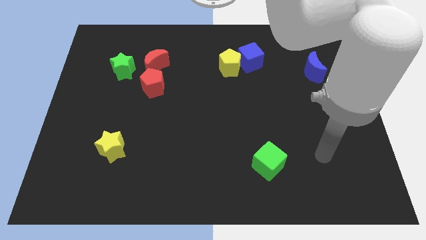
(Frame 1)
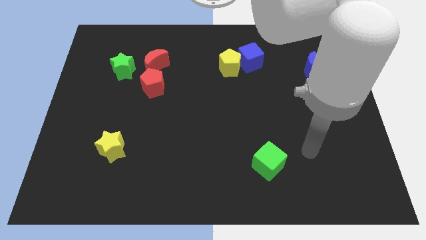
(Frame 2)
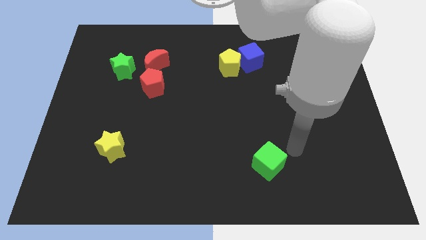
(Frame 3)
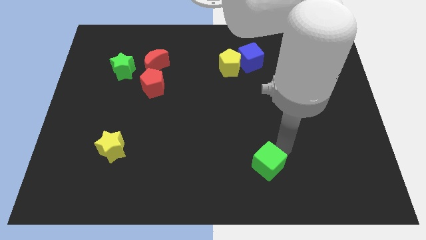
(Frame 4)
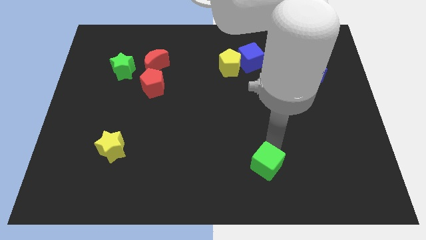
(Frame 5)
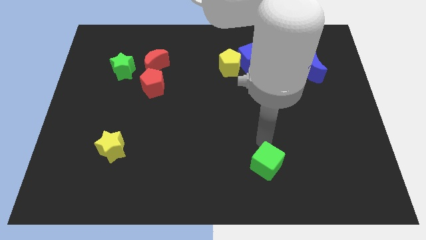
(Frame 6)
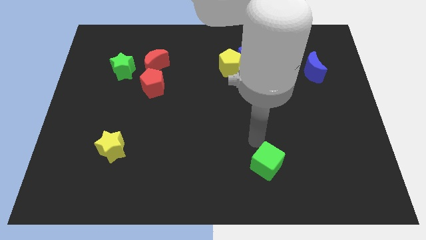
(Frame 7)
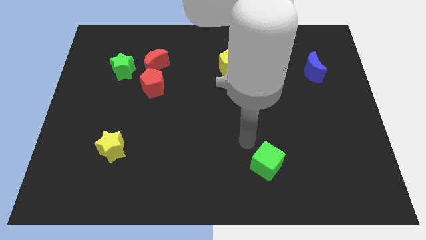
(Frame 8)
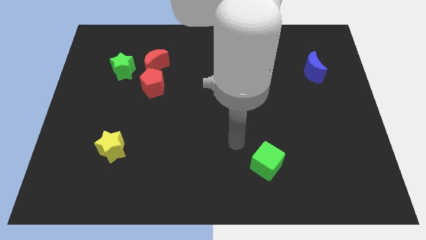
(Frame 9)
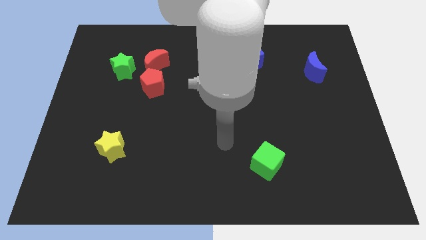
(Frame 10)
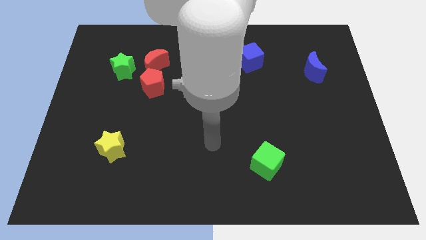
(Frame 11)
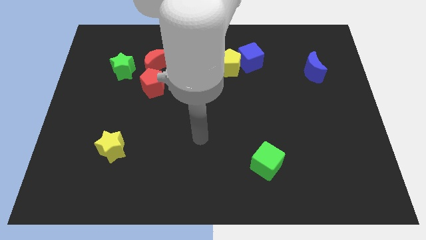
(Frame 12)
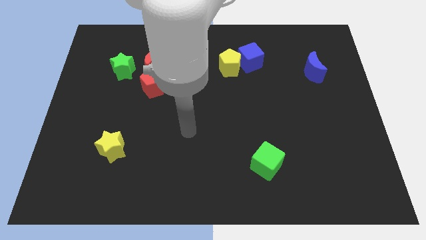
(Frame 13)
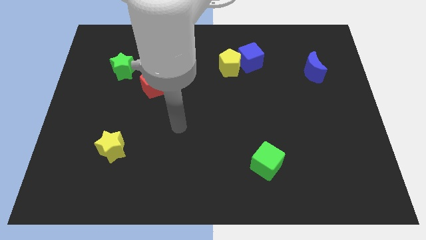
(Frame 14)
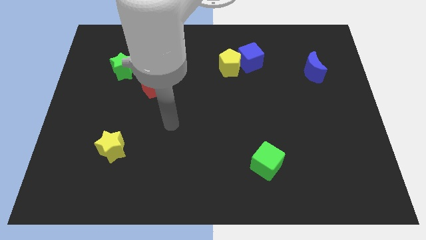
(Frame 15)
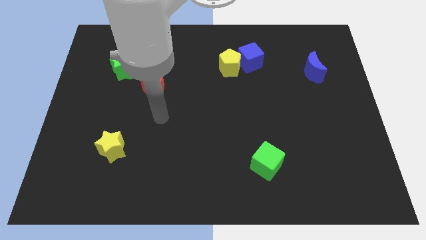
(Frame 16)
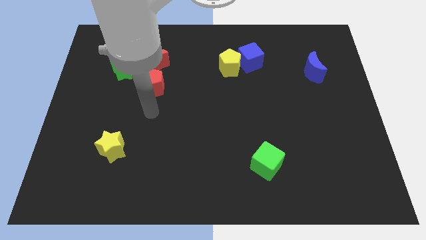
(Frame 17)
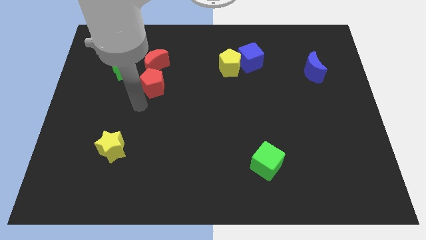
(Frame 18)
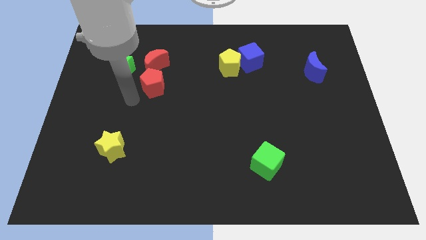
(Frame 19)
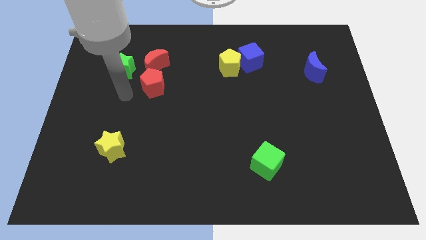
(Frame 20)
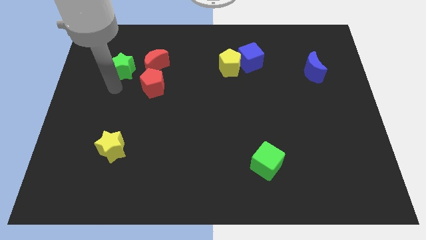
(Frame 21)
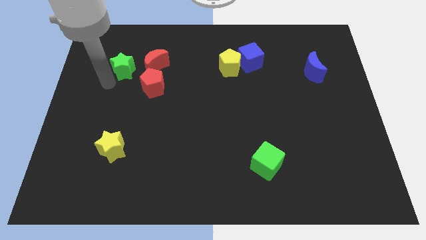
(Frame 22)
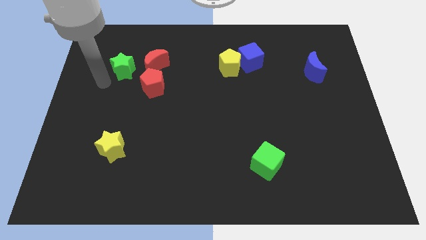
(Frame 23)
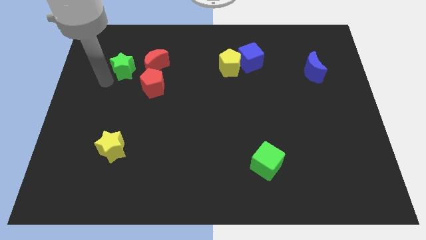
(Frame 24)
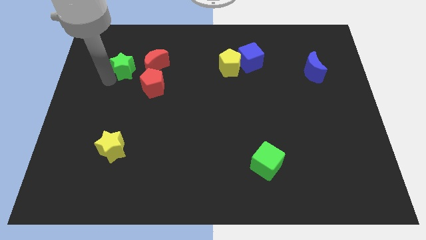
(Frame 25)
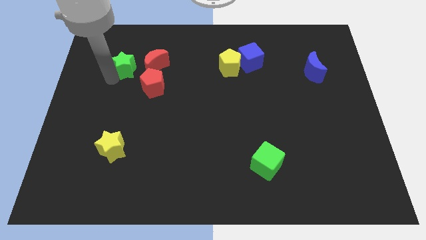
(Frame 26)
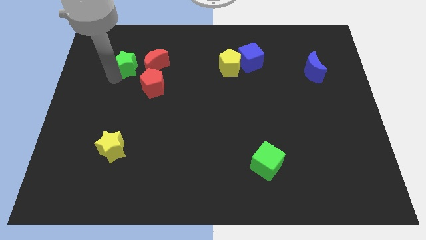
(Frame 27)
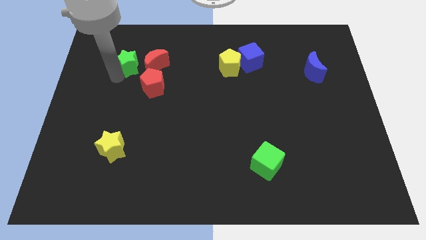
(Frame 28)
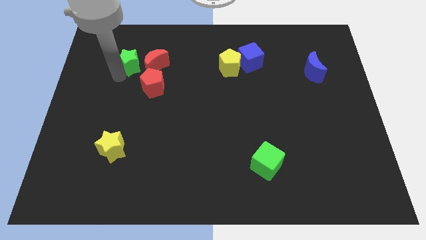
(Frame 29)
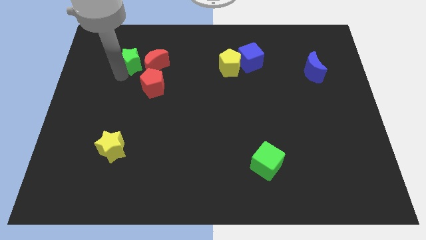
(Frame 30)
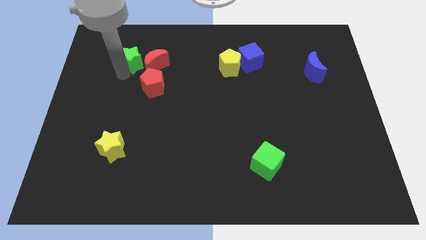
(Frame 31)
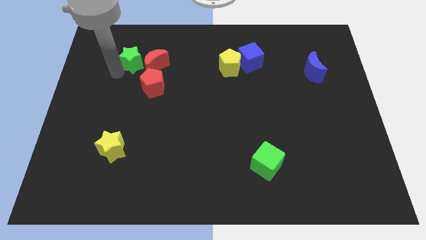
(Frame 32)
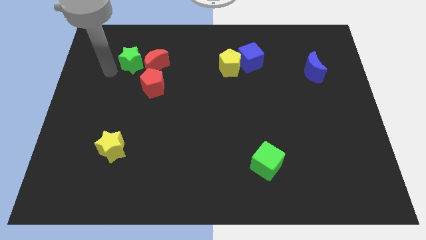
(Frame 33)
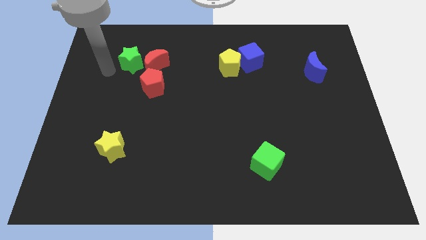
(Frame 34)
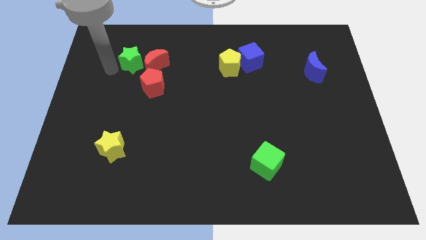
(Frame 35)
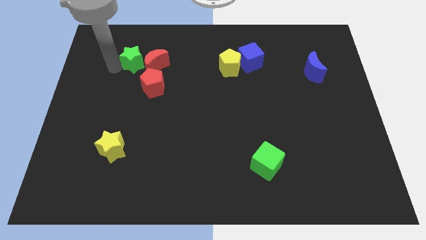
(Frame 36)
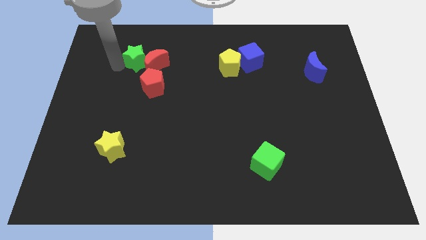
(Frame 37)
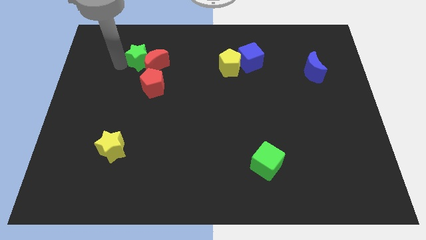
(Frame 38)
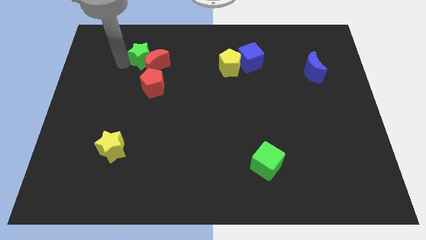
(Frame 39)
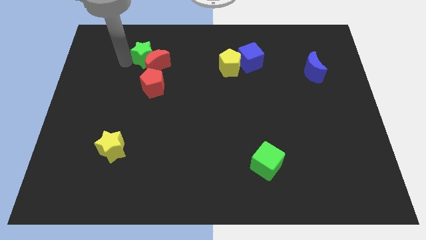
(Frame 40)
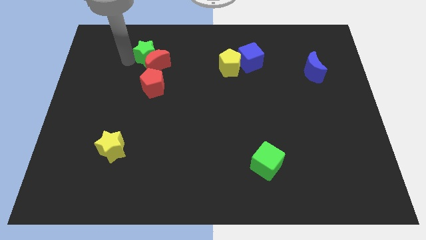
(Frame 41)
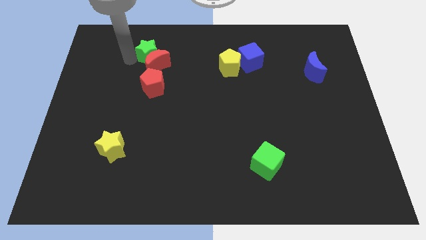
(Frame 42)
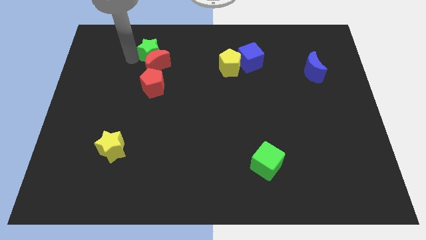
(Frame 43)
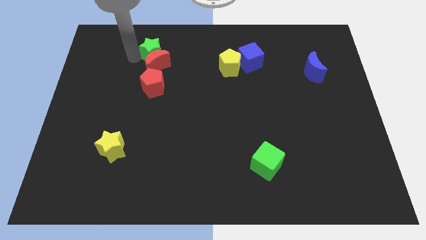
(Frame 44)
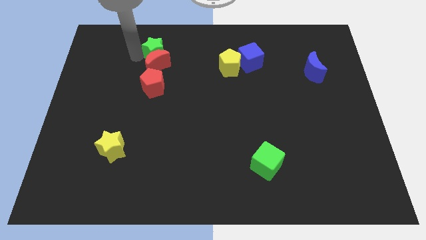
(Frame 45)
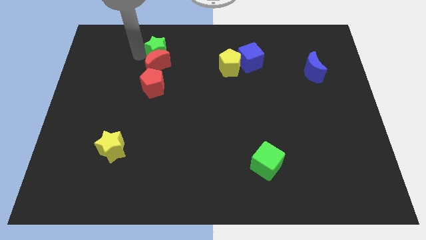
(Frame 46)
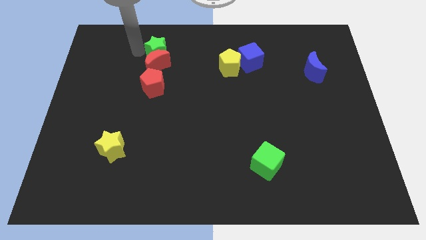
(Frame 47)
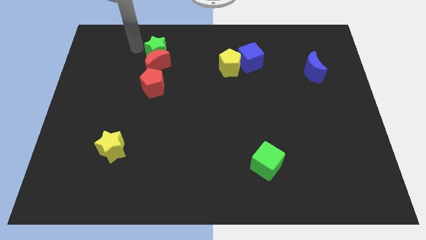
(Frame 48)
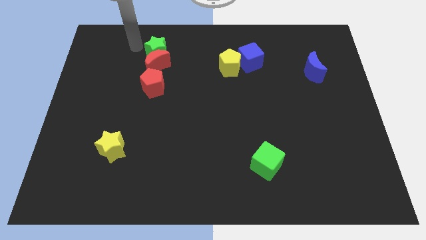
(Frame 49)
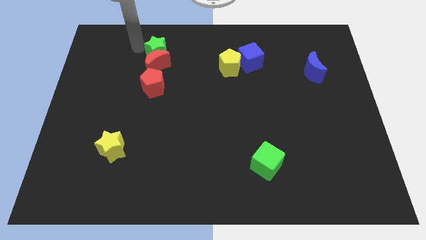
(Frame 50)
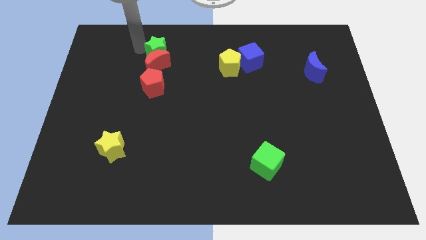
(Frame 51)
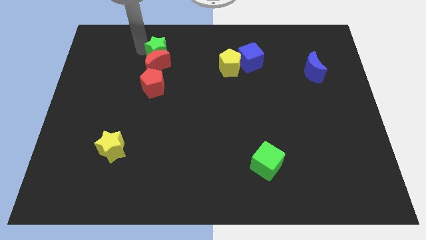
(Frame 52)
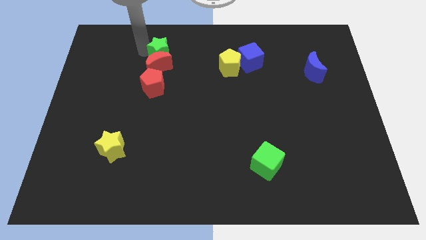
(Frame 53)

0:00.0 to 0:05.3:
move the green star a bit right

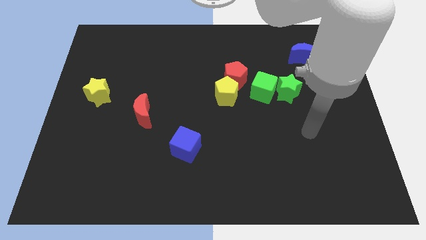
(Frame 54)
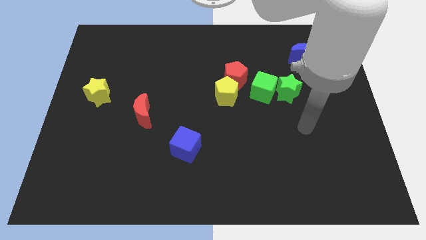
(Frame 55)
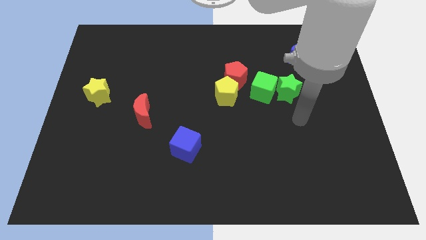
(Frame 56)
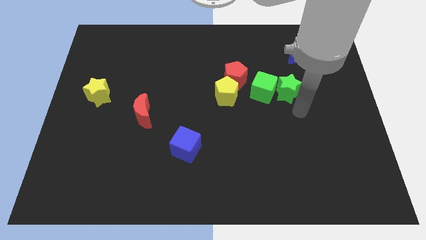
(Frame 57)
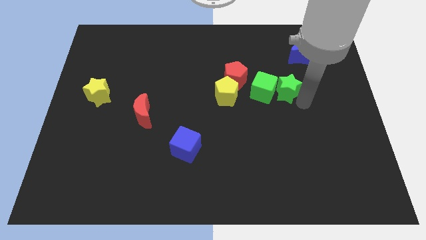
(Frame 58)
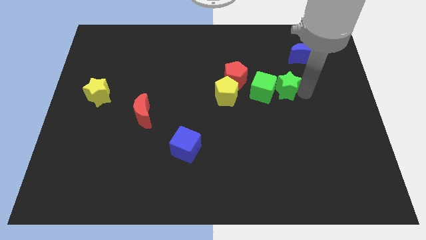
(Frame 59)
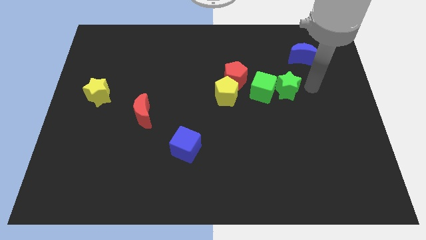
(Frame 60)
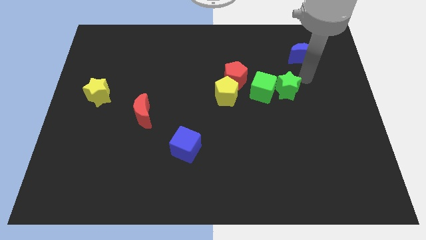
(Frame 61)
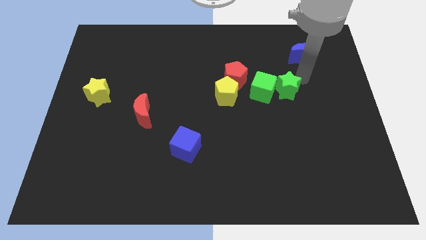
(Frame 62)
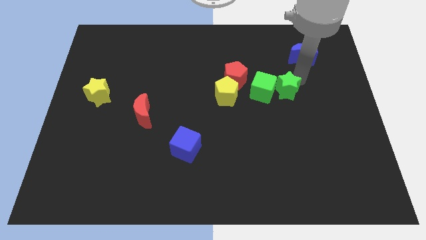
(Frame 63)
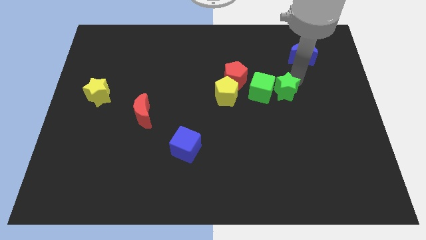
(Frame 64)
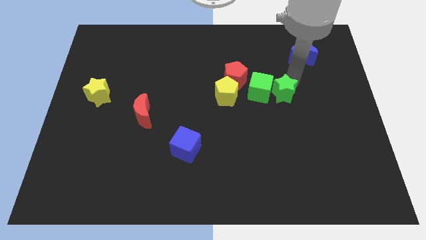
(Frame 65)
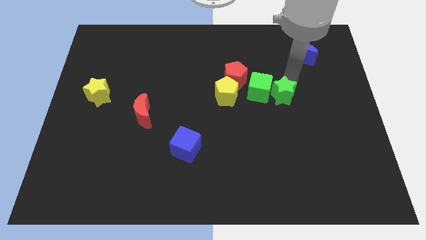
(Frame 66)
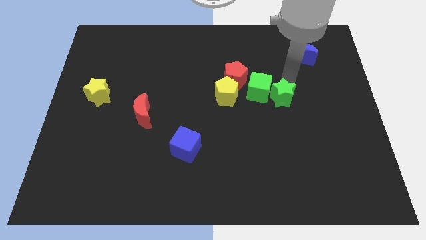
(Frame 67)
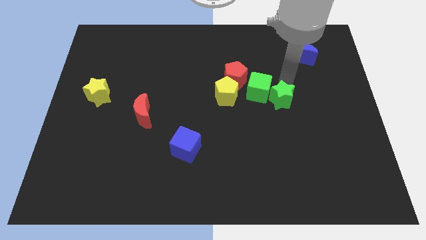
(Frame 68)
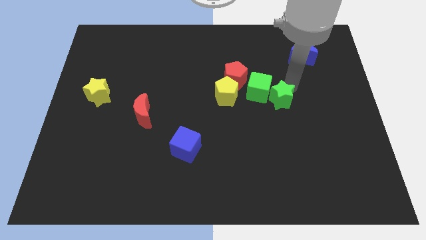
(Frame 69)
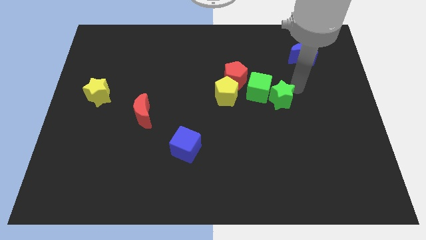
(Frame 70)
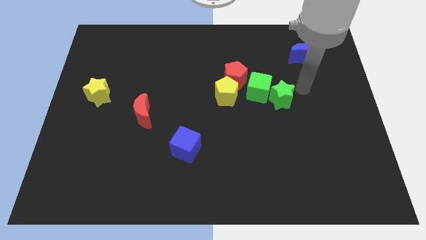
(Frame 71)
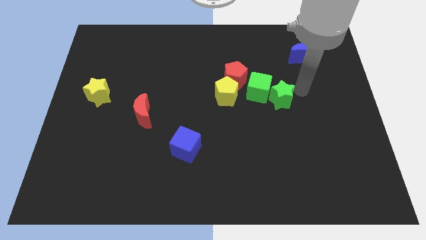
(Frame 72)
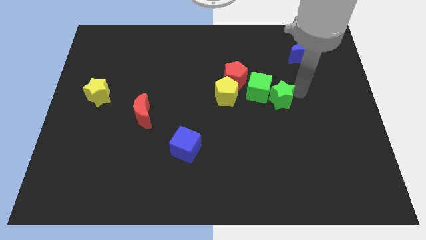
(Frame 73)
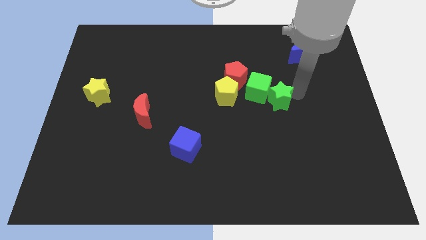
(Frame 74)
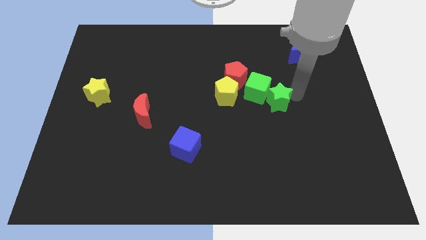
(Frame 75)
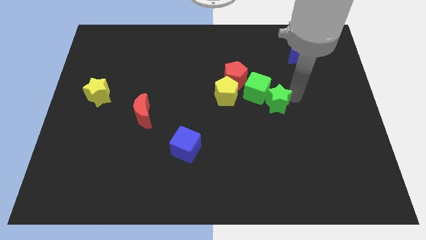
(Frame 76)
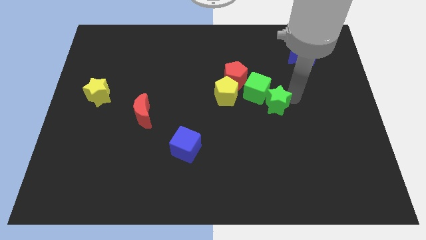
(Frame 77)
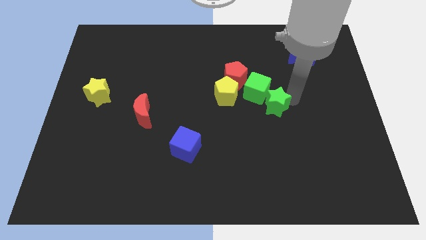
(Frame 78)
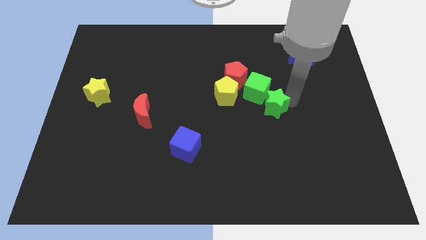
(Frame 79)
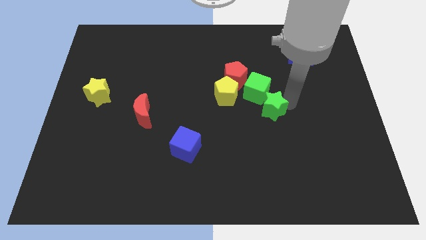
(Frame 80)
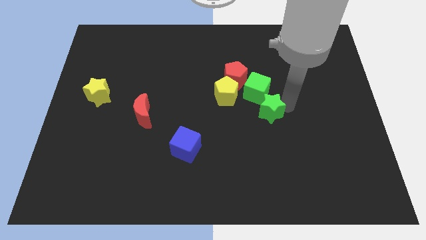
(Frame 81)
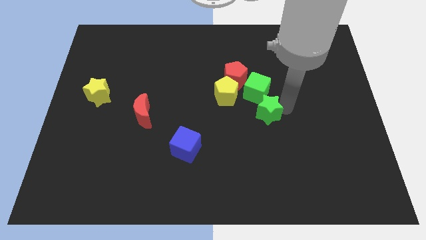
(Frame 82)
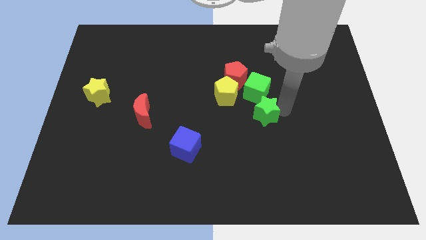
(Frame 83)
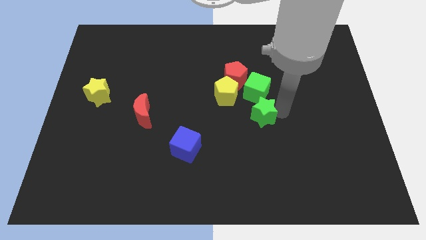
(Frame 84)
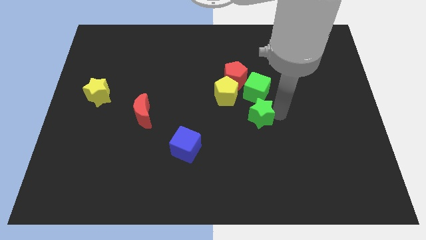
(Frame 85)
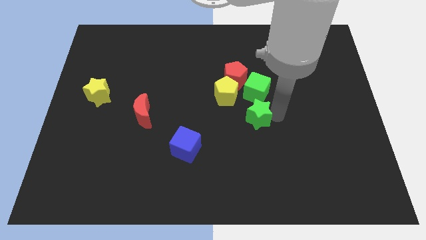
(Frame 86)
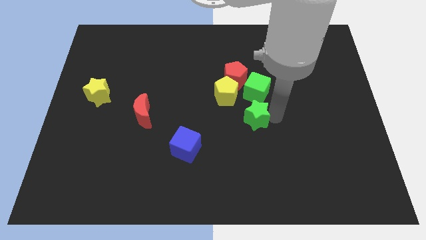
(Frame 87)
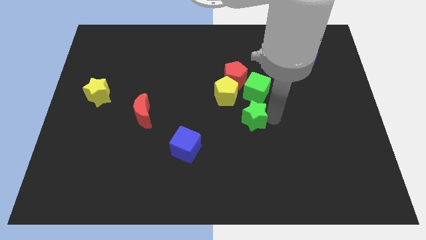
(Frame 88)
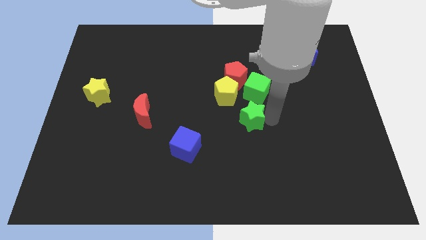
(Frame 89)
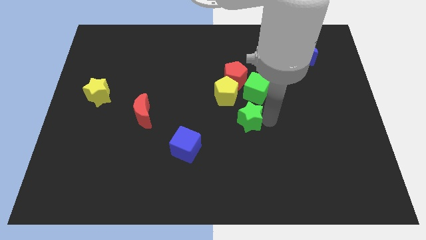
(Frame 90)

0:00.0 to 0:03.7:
push the green star a bit to the left
